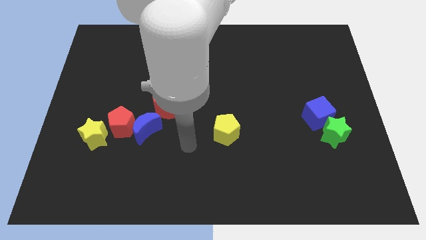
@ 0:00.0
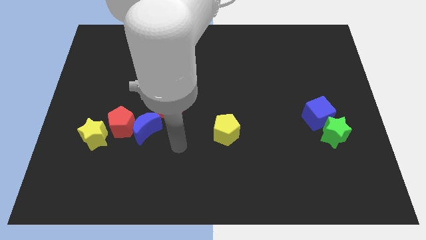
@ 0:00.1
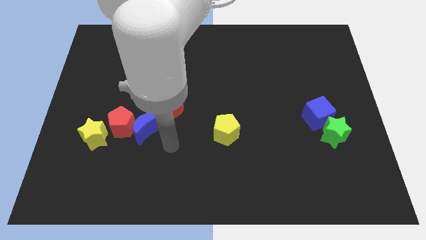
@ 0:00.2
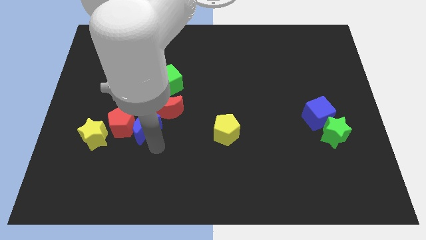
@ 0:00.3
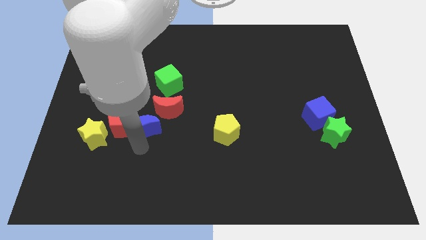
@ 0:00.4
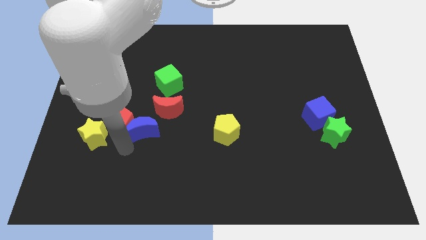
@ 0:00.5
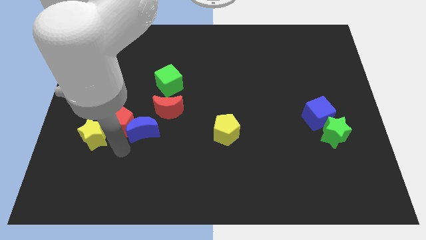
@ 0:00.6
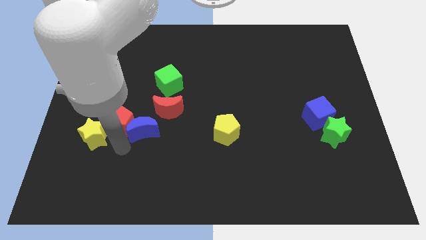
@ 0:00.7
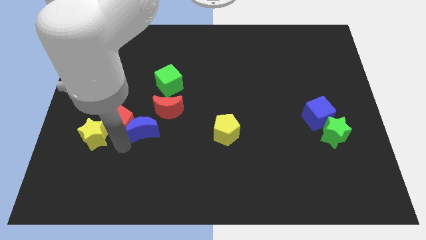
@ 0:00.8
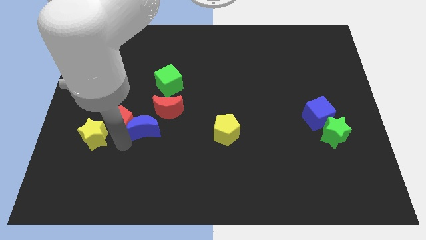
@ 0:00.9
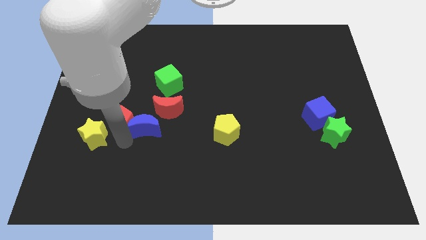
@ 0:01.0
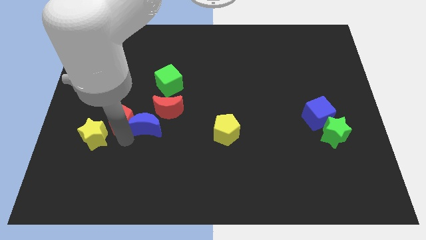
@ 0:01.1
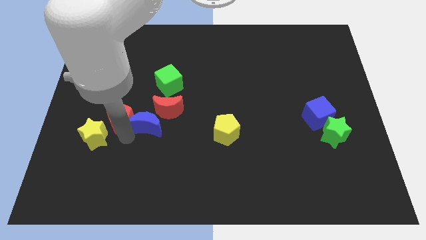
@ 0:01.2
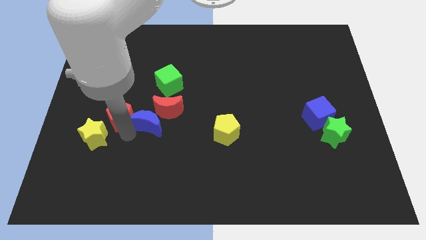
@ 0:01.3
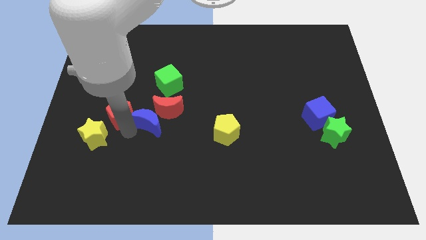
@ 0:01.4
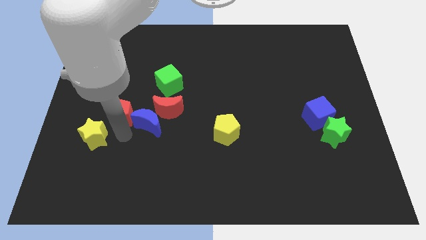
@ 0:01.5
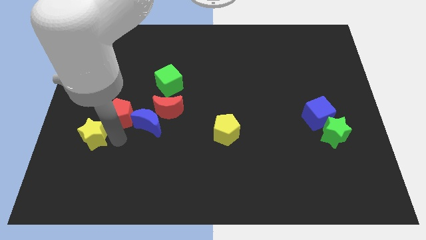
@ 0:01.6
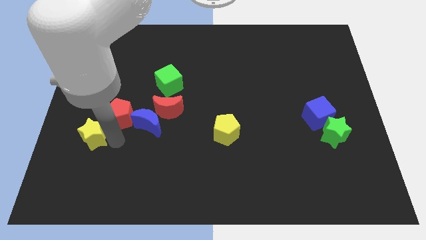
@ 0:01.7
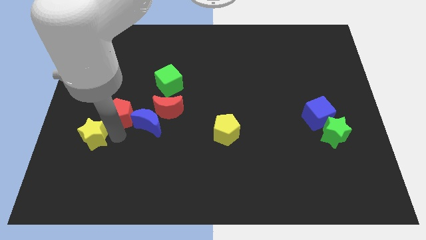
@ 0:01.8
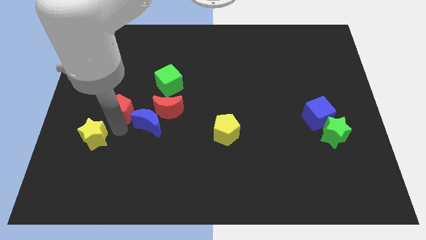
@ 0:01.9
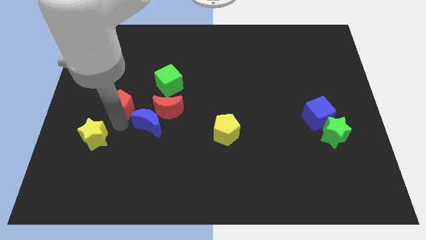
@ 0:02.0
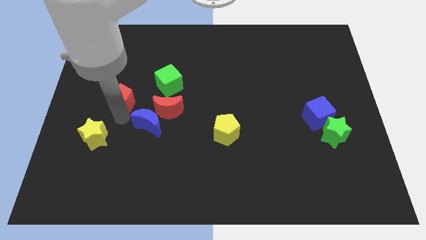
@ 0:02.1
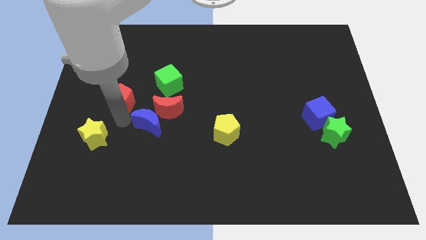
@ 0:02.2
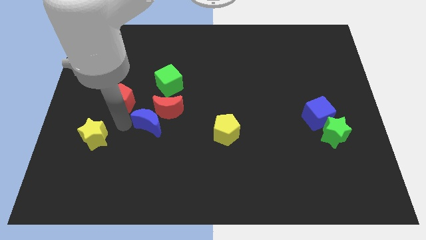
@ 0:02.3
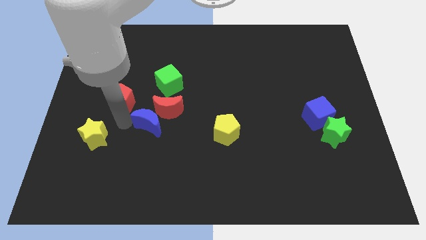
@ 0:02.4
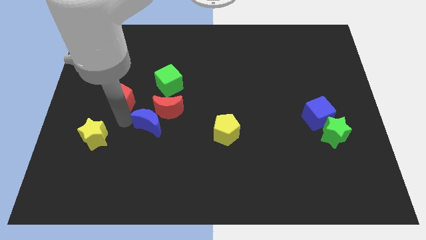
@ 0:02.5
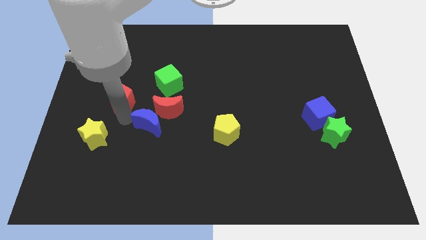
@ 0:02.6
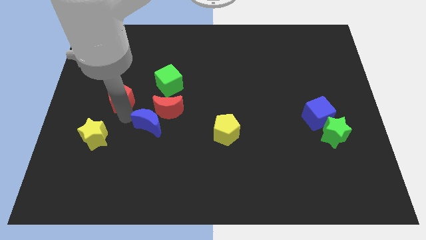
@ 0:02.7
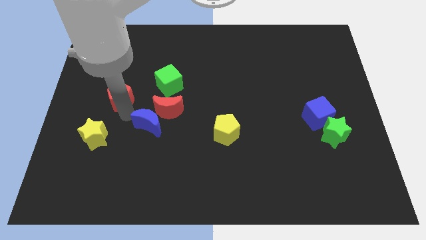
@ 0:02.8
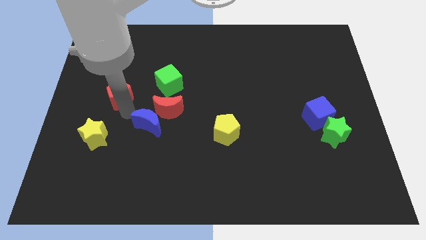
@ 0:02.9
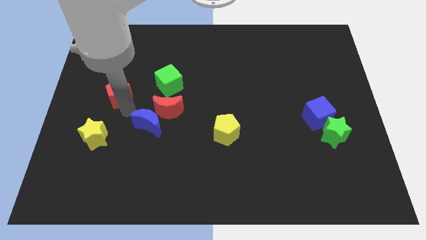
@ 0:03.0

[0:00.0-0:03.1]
move the red pentagon away from the blue moon and yellow star

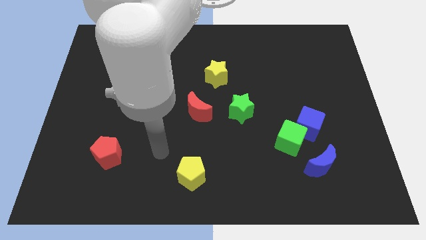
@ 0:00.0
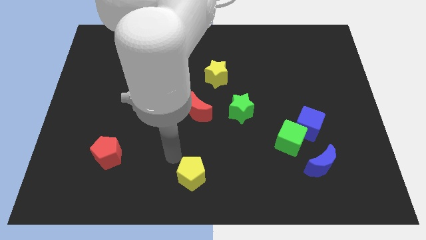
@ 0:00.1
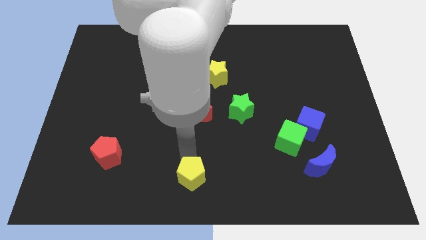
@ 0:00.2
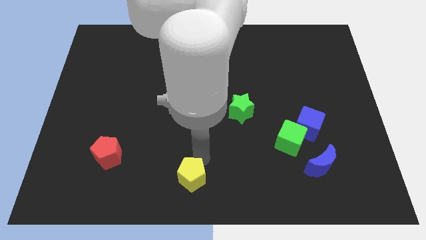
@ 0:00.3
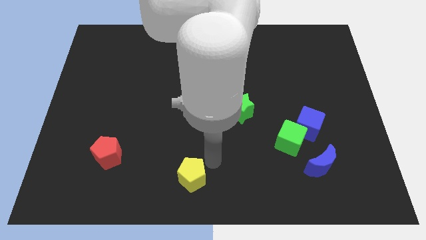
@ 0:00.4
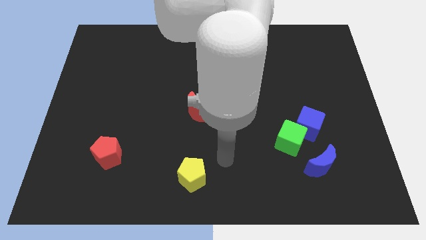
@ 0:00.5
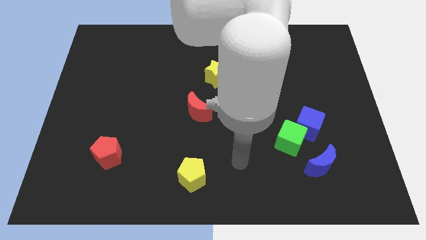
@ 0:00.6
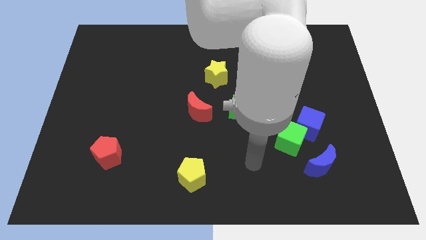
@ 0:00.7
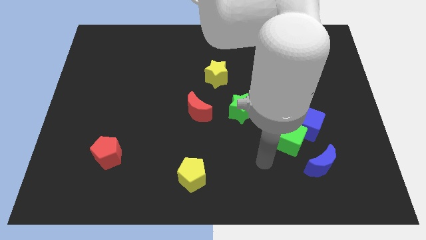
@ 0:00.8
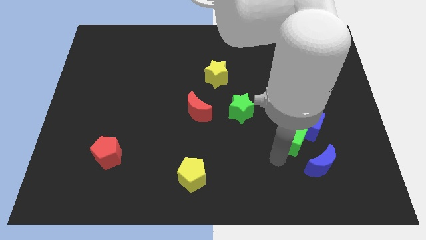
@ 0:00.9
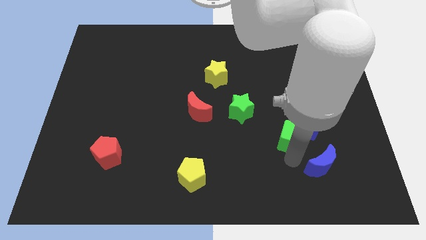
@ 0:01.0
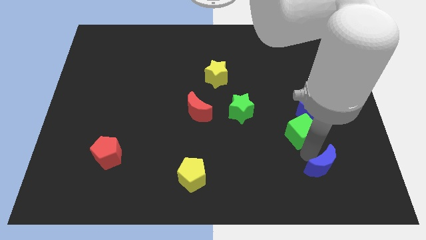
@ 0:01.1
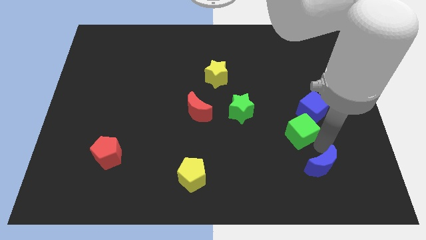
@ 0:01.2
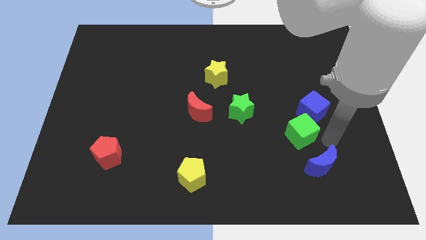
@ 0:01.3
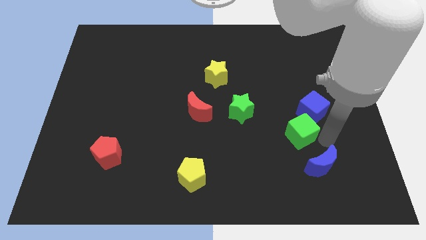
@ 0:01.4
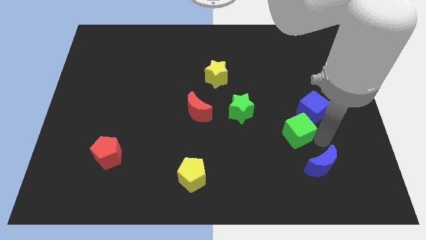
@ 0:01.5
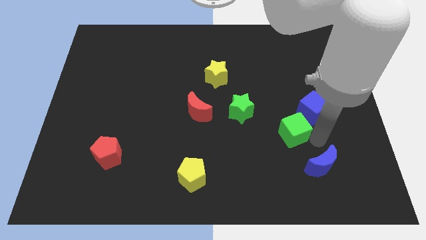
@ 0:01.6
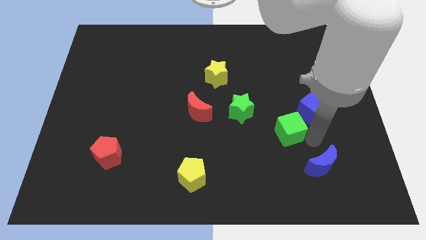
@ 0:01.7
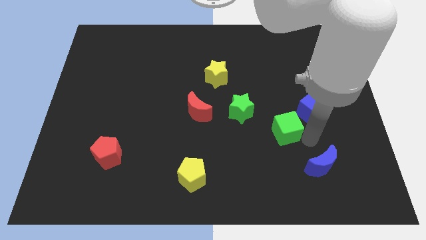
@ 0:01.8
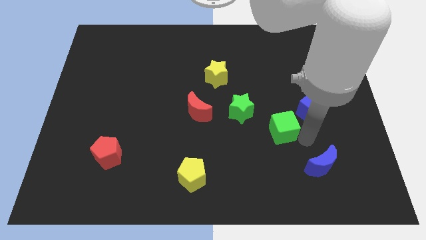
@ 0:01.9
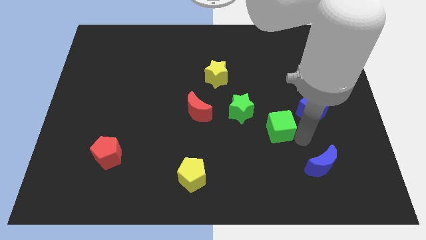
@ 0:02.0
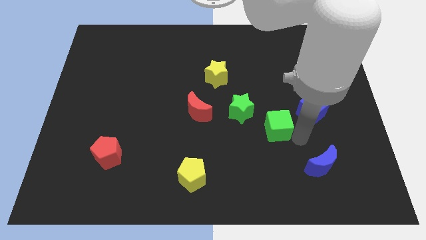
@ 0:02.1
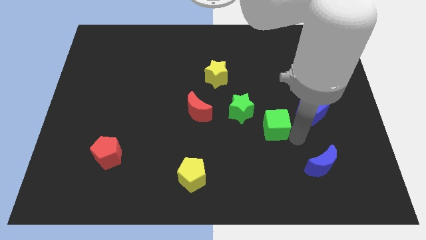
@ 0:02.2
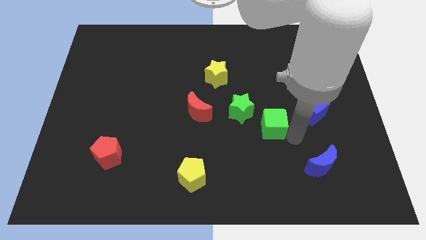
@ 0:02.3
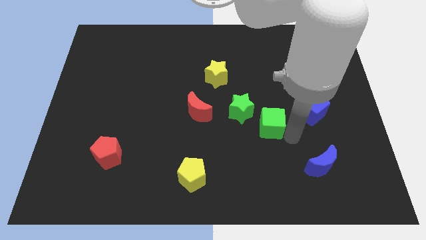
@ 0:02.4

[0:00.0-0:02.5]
pull the green cube apart from the blue cube and blue moon

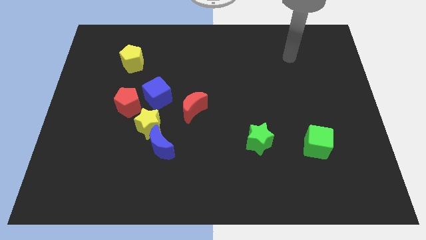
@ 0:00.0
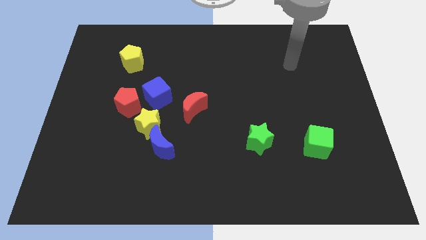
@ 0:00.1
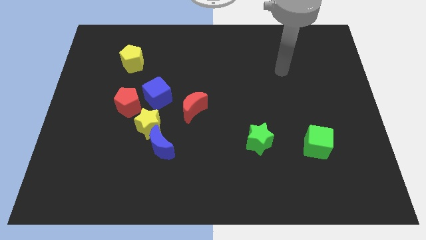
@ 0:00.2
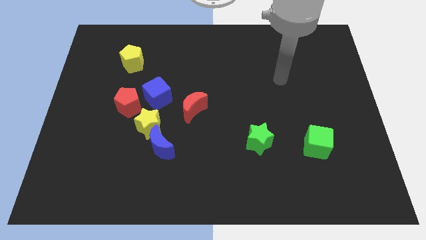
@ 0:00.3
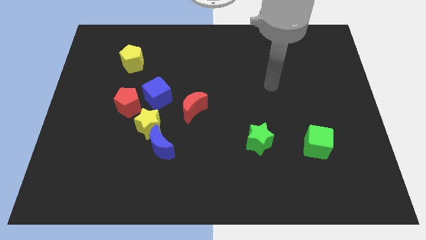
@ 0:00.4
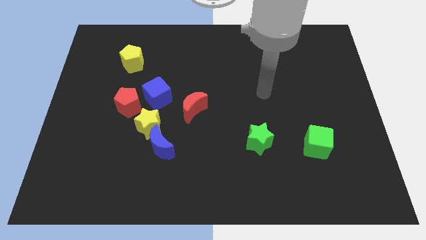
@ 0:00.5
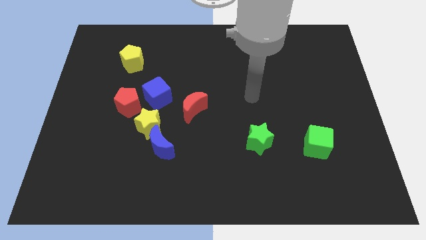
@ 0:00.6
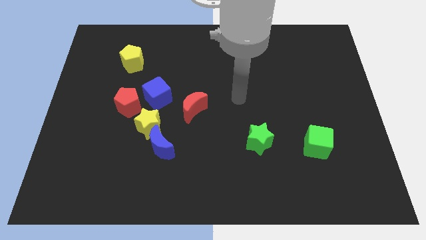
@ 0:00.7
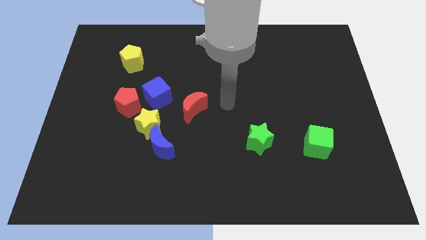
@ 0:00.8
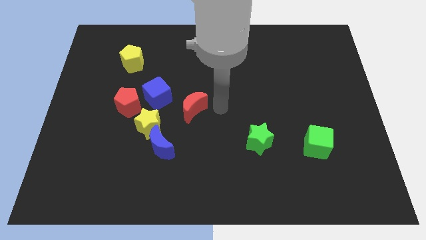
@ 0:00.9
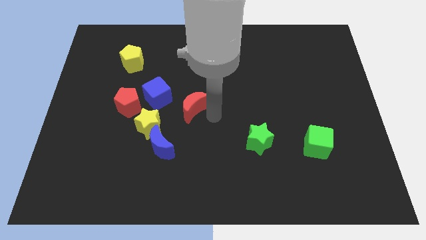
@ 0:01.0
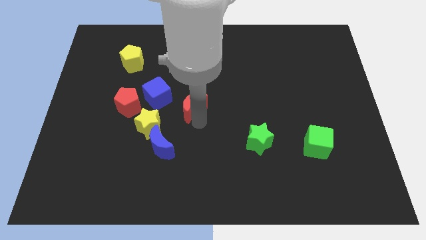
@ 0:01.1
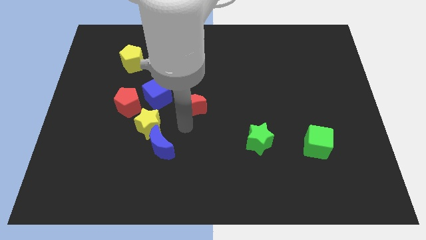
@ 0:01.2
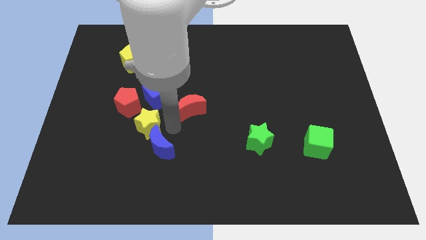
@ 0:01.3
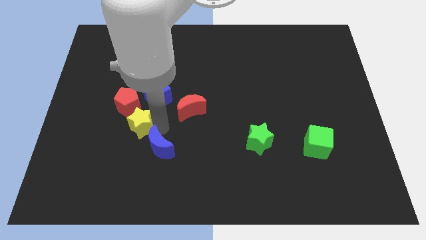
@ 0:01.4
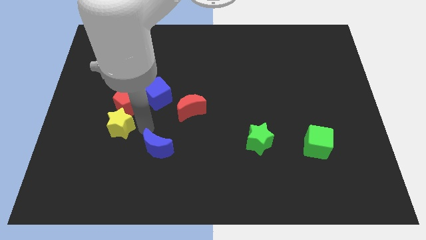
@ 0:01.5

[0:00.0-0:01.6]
separate the blue moon from the yellow star

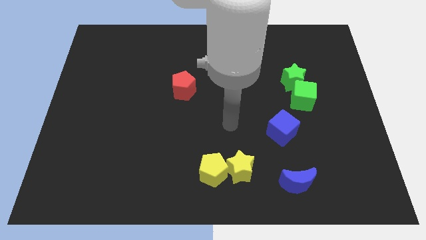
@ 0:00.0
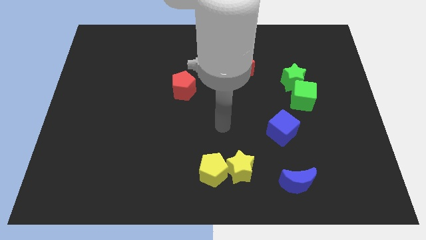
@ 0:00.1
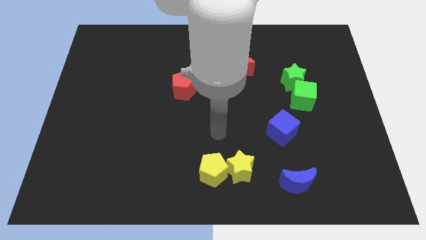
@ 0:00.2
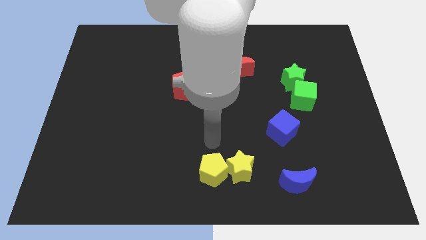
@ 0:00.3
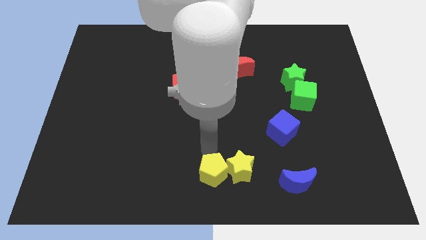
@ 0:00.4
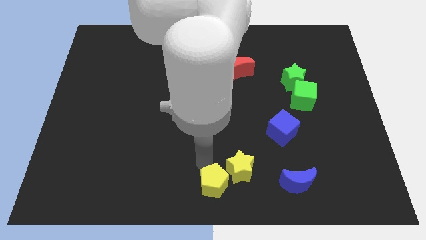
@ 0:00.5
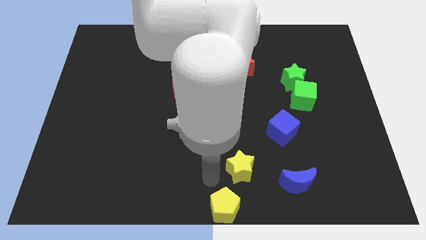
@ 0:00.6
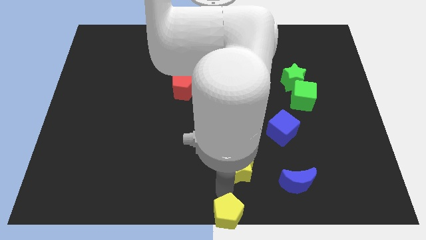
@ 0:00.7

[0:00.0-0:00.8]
separate the yellow star from the yellow pentagon

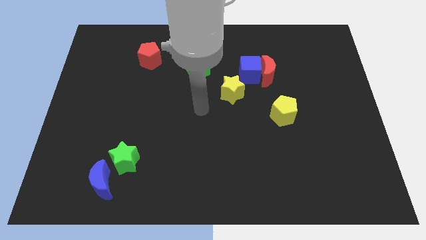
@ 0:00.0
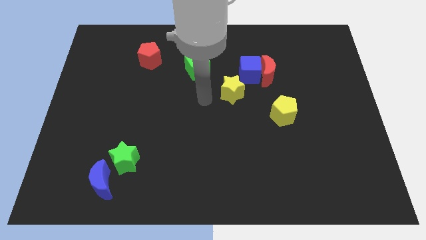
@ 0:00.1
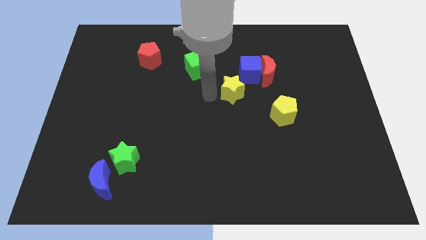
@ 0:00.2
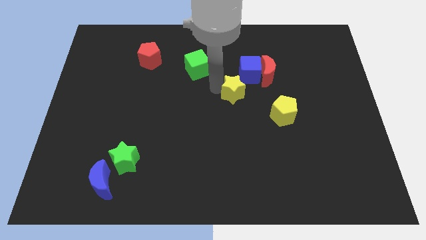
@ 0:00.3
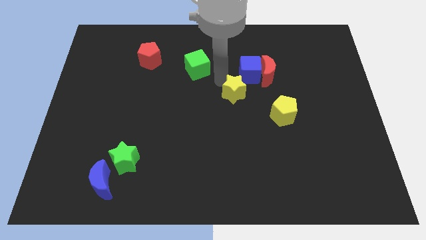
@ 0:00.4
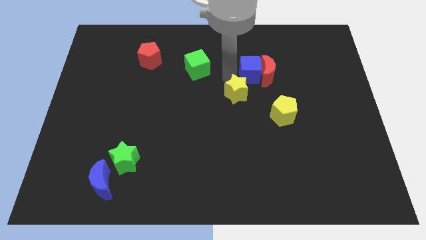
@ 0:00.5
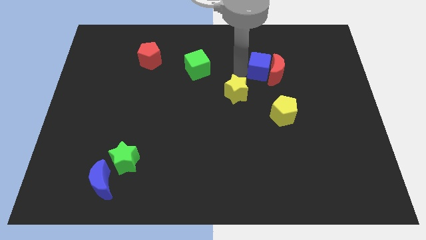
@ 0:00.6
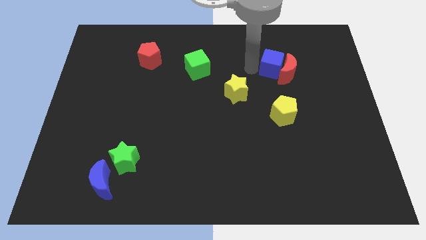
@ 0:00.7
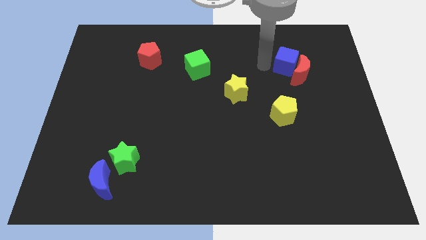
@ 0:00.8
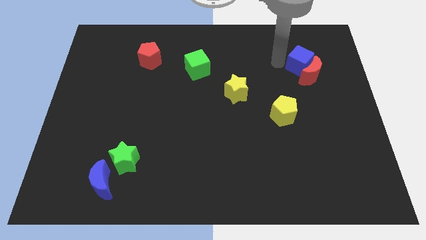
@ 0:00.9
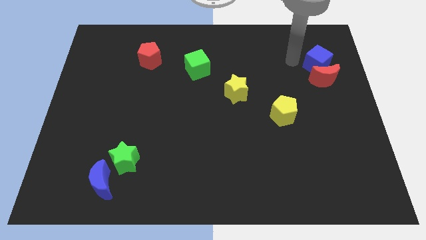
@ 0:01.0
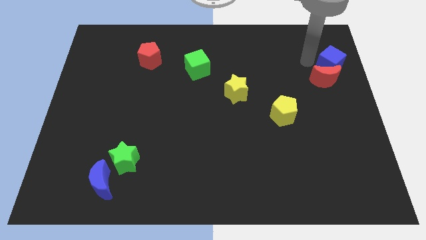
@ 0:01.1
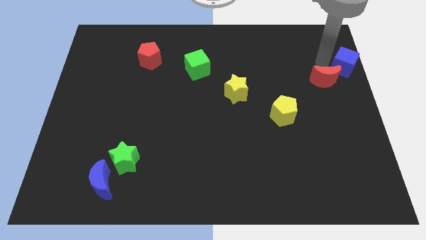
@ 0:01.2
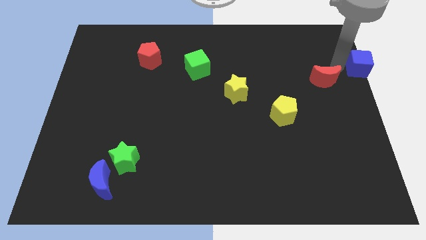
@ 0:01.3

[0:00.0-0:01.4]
separate the red moon from the blue cube
